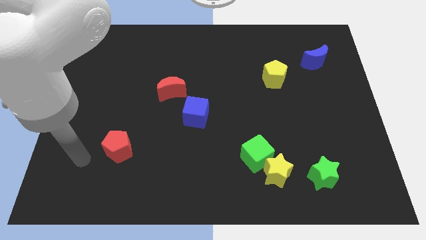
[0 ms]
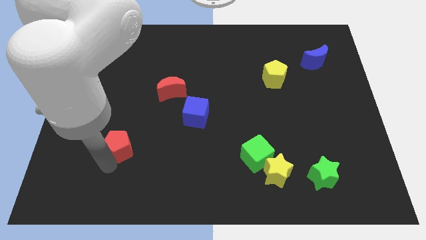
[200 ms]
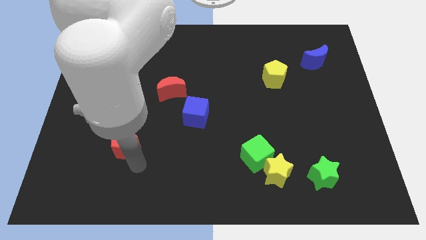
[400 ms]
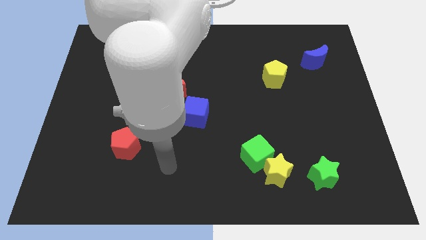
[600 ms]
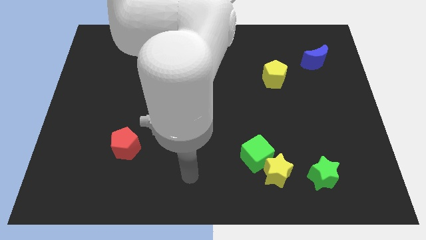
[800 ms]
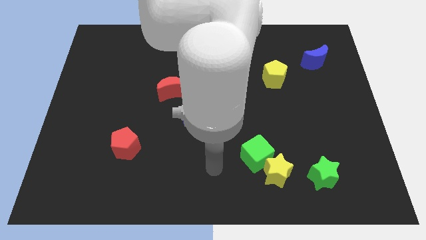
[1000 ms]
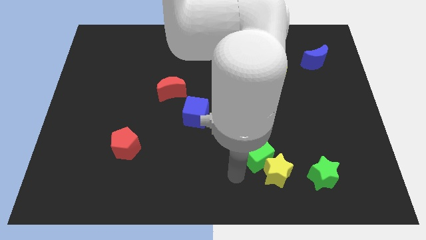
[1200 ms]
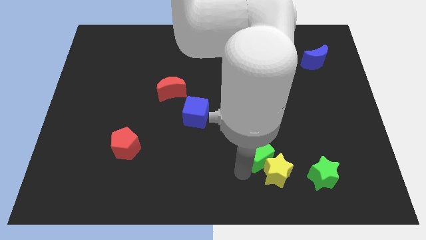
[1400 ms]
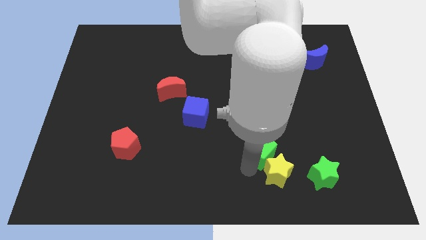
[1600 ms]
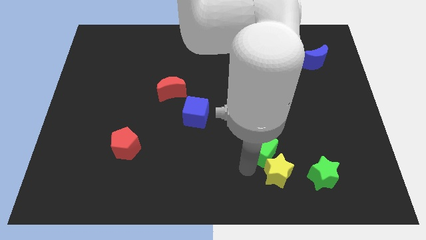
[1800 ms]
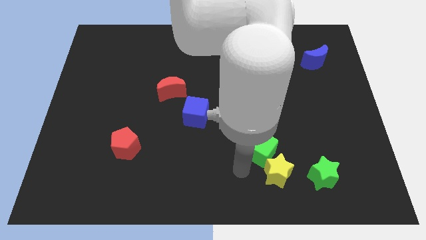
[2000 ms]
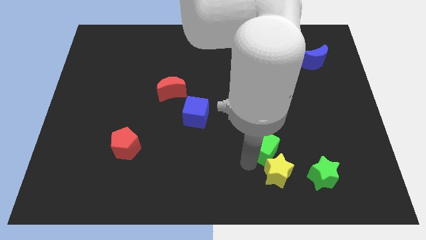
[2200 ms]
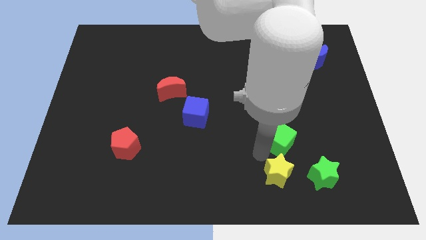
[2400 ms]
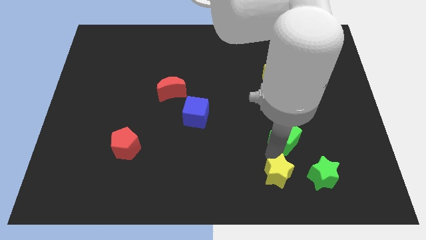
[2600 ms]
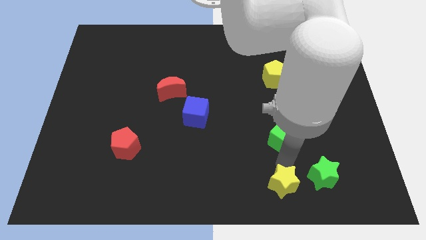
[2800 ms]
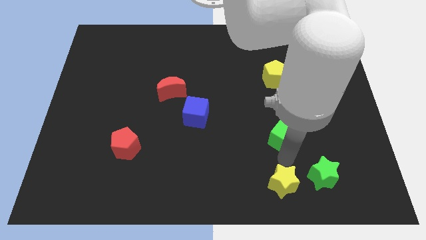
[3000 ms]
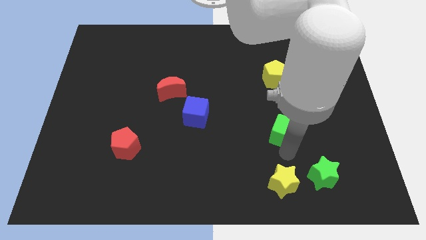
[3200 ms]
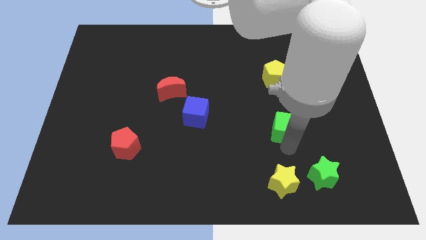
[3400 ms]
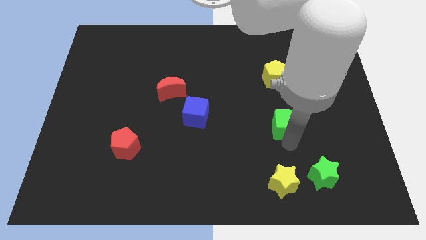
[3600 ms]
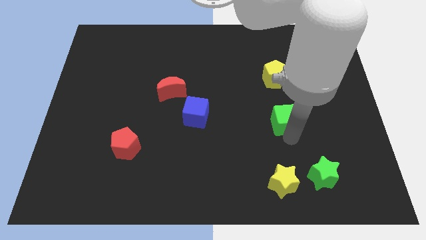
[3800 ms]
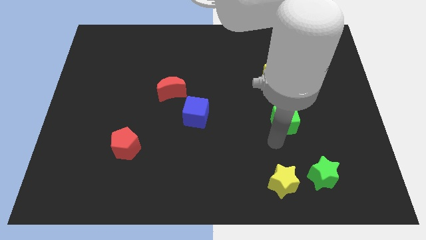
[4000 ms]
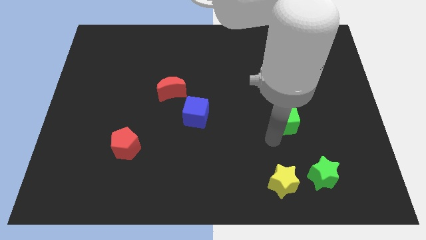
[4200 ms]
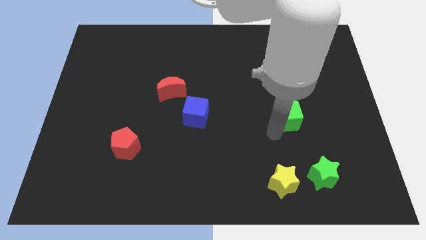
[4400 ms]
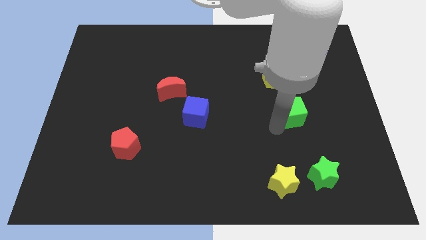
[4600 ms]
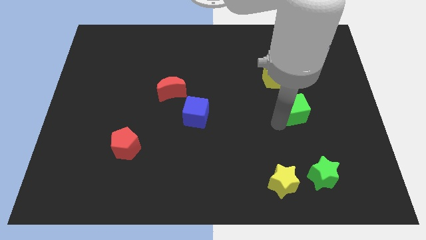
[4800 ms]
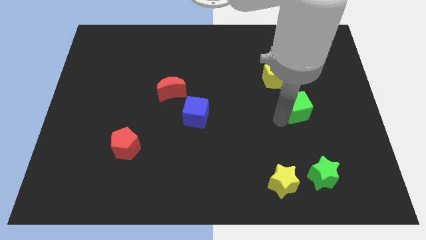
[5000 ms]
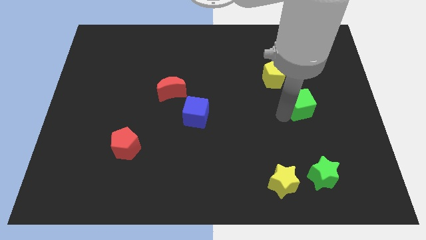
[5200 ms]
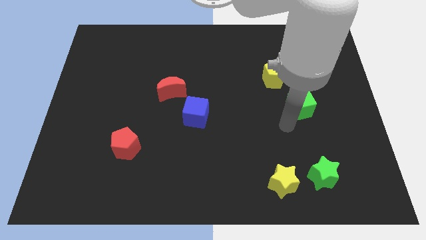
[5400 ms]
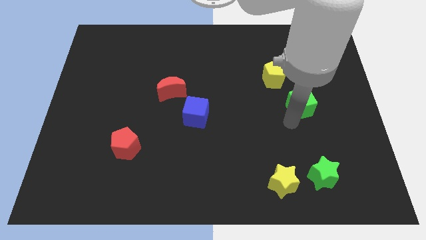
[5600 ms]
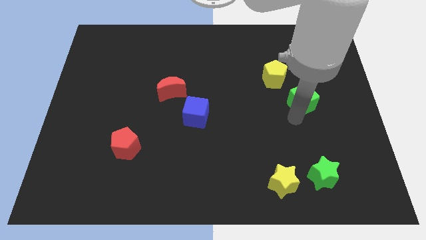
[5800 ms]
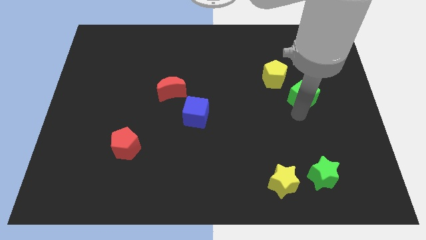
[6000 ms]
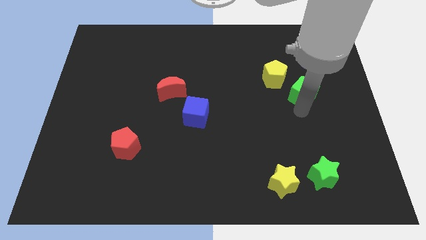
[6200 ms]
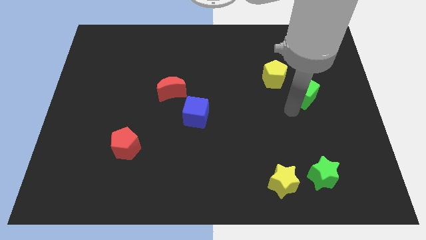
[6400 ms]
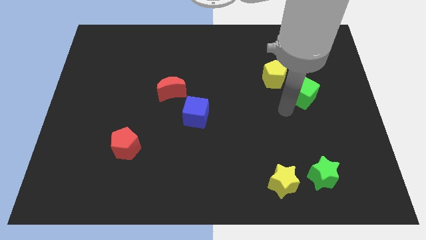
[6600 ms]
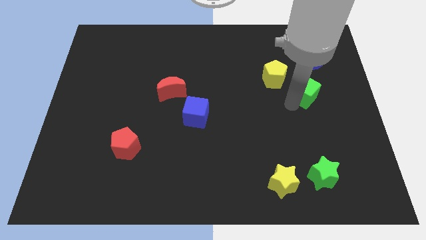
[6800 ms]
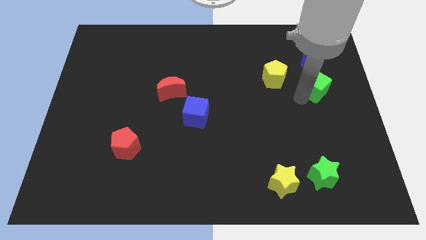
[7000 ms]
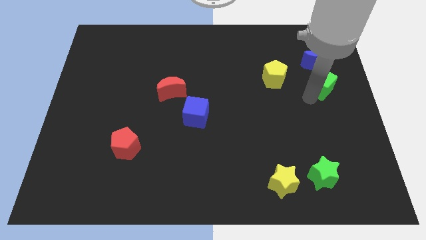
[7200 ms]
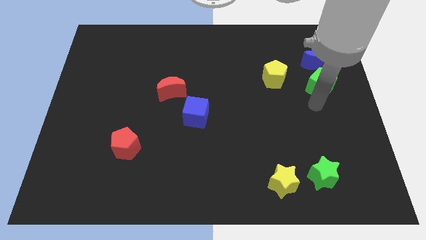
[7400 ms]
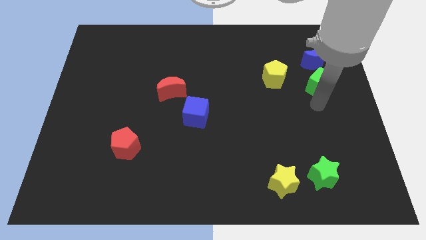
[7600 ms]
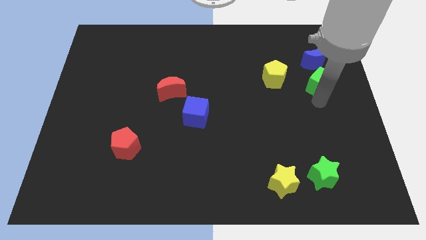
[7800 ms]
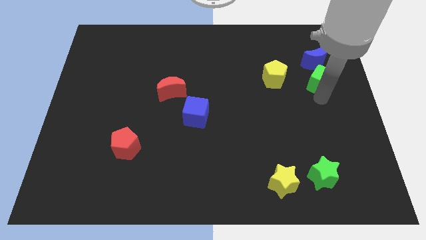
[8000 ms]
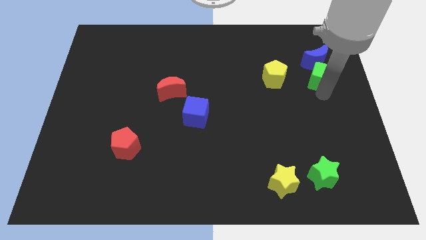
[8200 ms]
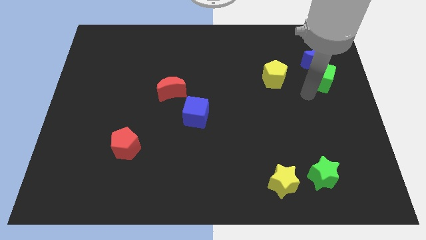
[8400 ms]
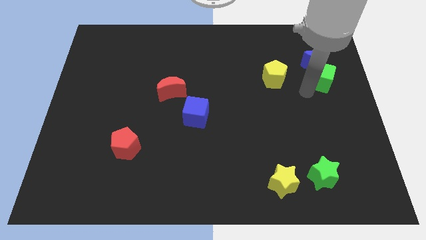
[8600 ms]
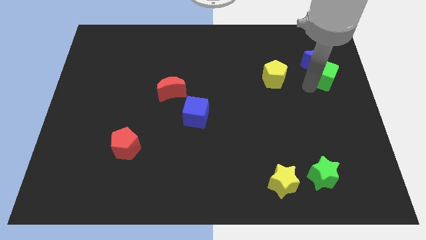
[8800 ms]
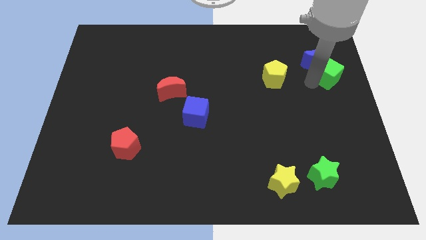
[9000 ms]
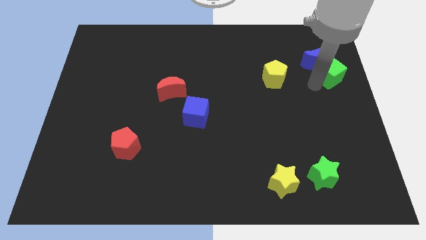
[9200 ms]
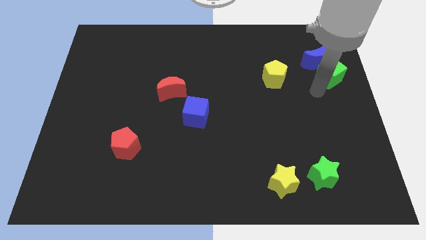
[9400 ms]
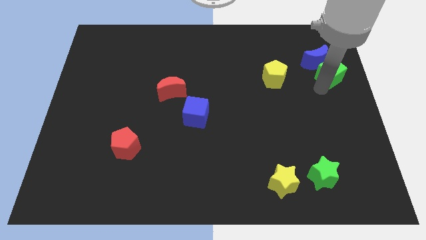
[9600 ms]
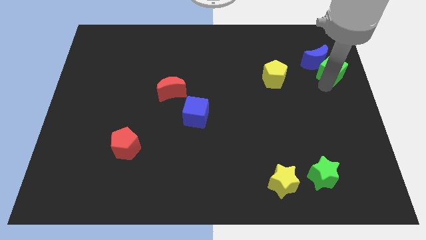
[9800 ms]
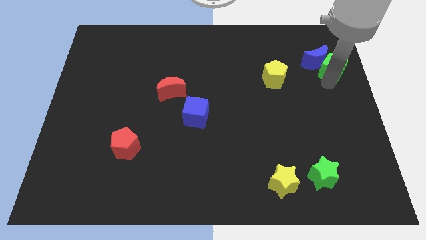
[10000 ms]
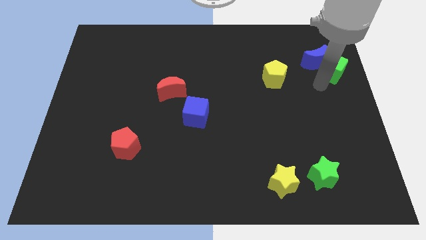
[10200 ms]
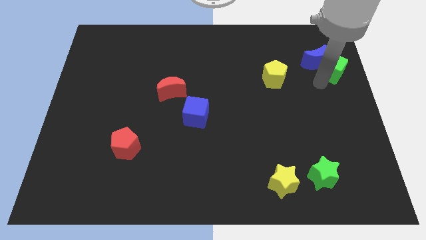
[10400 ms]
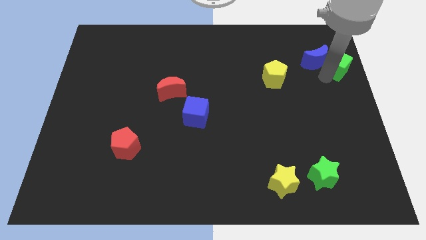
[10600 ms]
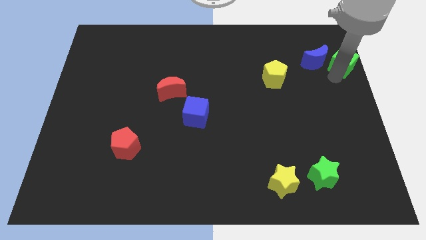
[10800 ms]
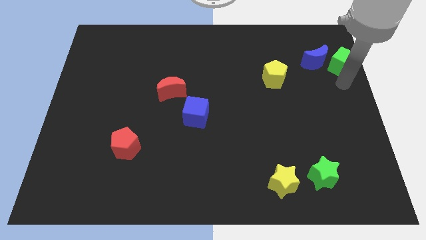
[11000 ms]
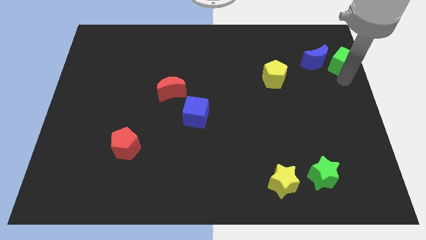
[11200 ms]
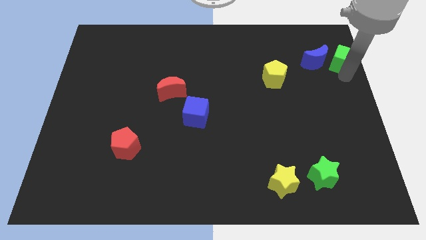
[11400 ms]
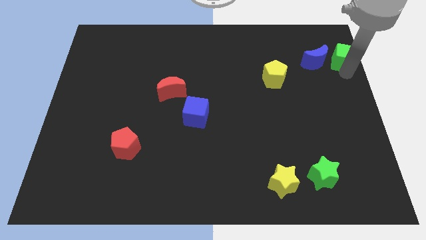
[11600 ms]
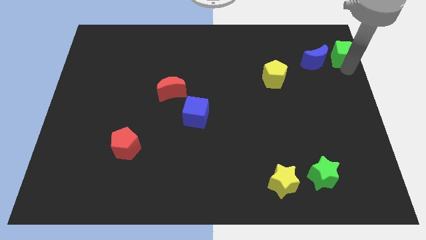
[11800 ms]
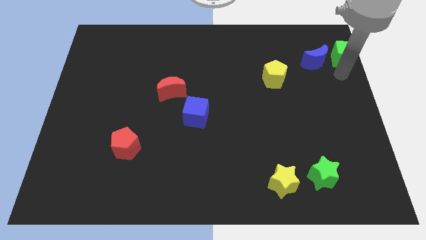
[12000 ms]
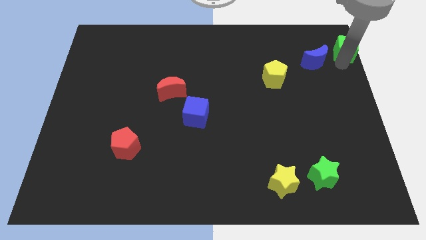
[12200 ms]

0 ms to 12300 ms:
put the green cube to the top right corner
